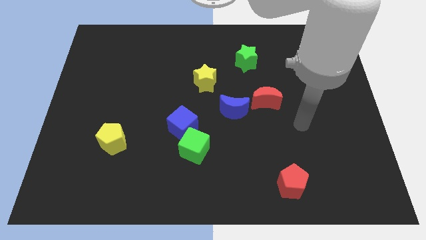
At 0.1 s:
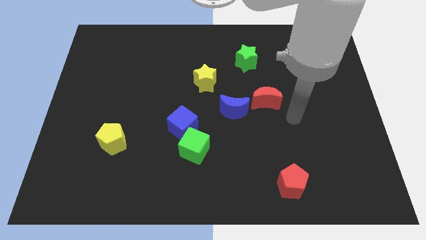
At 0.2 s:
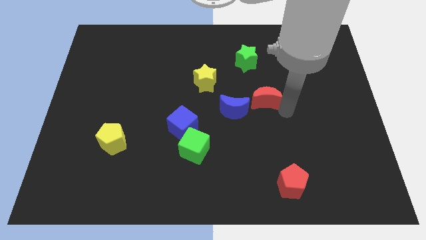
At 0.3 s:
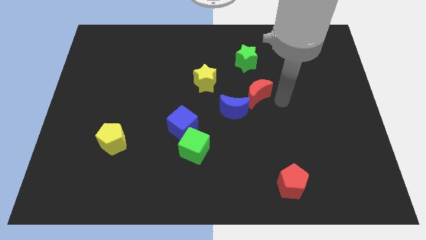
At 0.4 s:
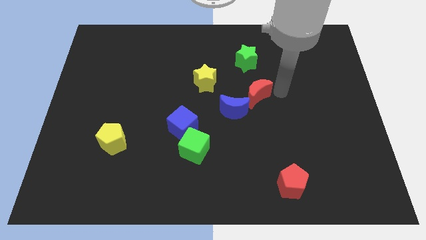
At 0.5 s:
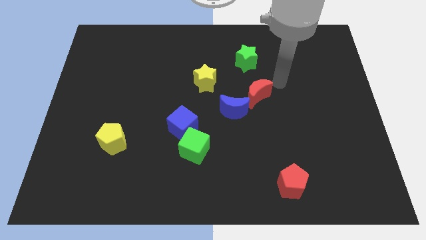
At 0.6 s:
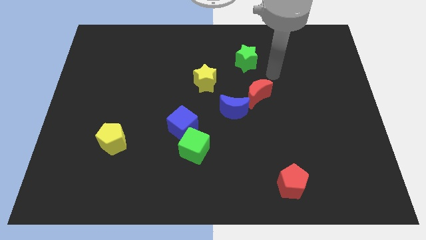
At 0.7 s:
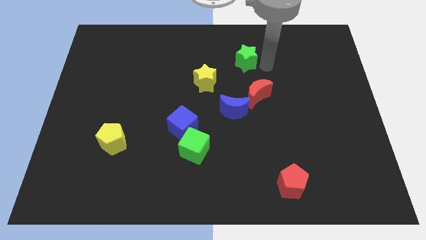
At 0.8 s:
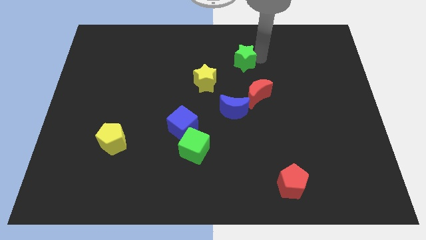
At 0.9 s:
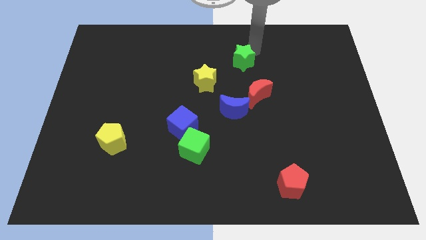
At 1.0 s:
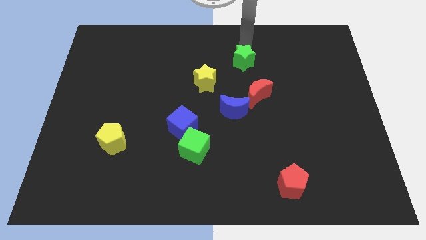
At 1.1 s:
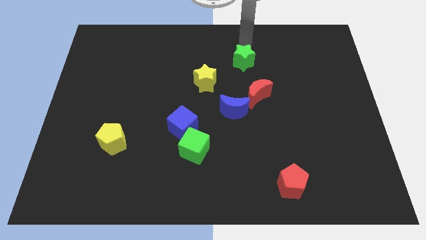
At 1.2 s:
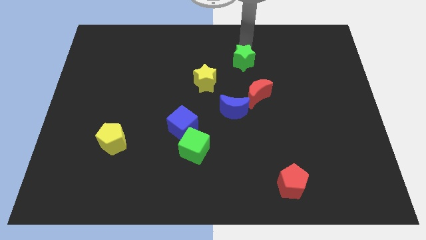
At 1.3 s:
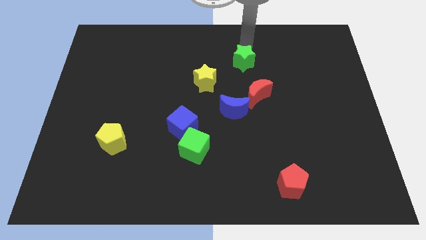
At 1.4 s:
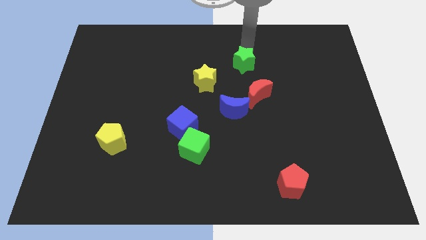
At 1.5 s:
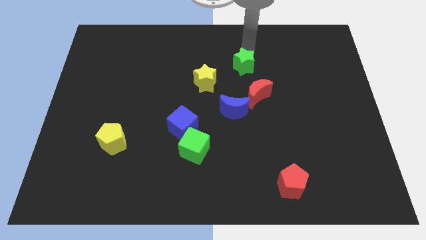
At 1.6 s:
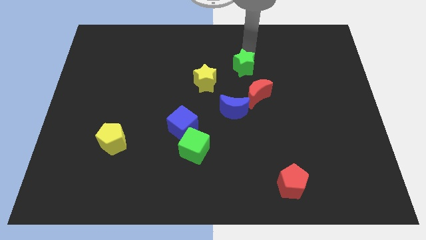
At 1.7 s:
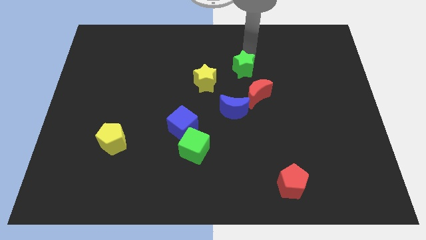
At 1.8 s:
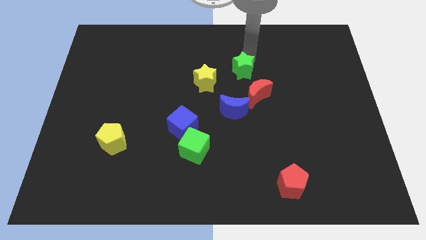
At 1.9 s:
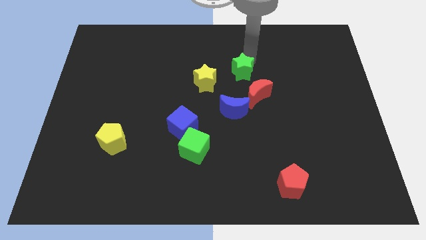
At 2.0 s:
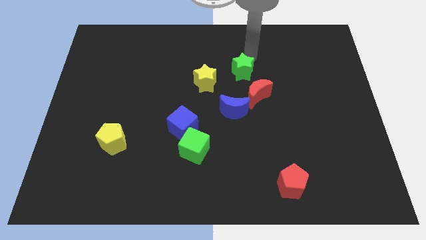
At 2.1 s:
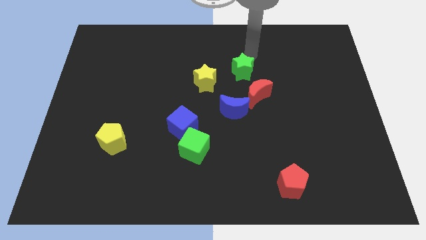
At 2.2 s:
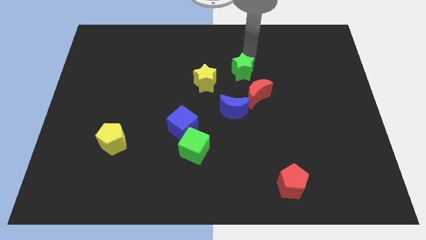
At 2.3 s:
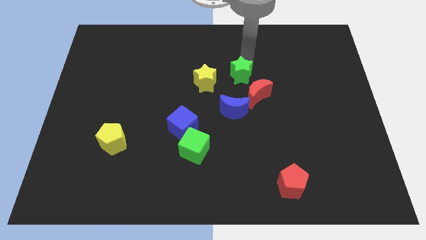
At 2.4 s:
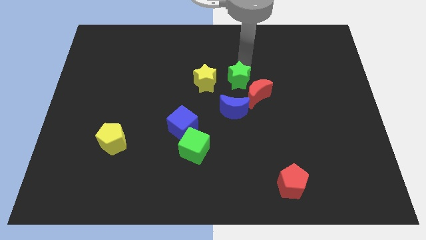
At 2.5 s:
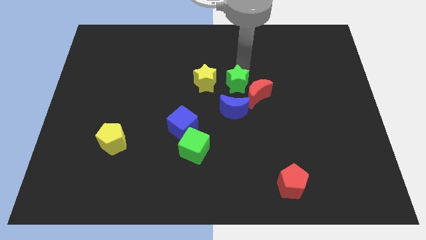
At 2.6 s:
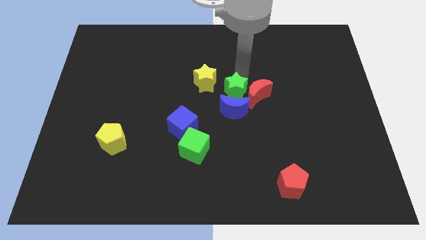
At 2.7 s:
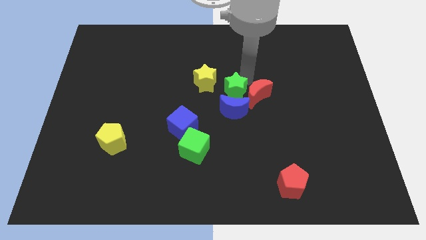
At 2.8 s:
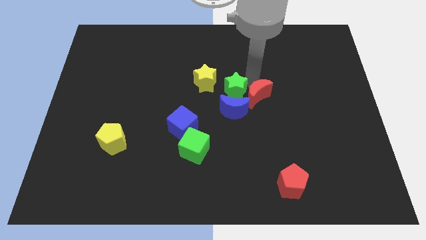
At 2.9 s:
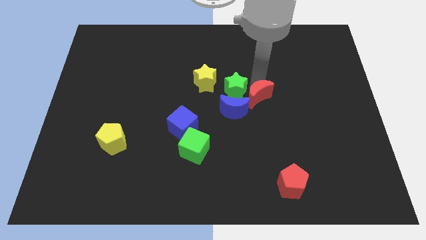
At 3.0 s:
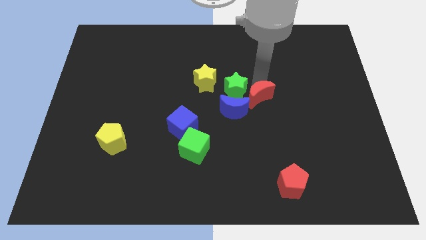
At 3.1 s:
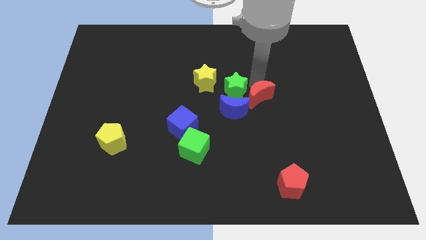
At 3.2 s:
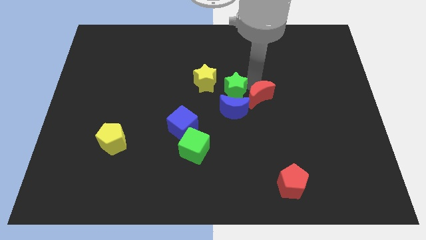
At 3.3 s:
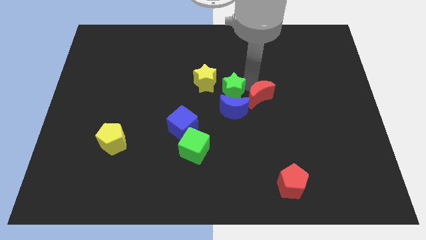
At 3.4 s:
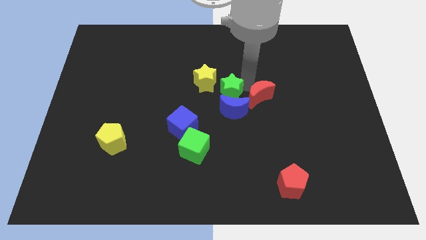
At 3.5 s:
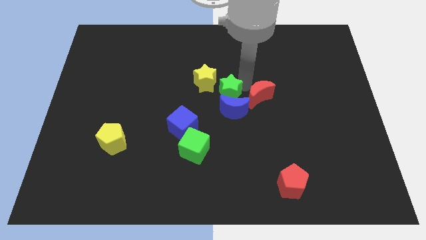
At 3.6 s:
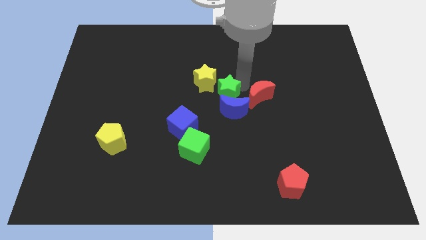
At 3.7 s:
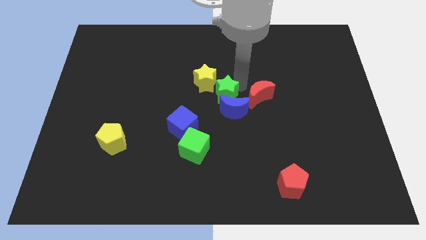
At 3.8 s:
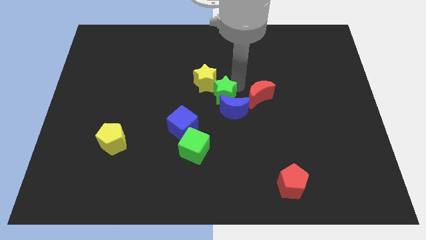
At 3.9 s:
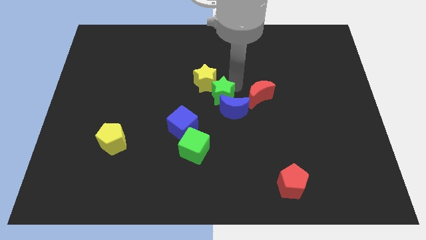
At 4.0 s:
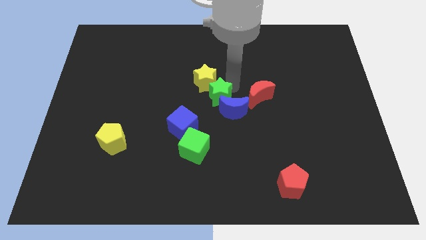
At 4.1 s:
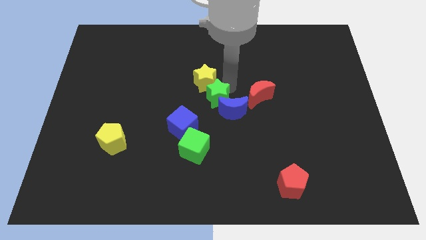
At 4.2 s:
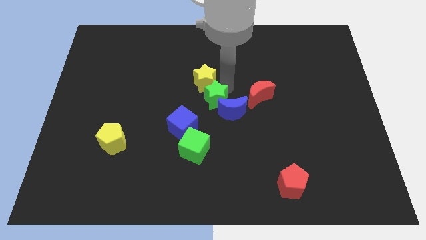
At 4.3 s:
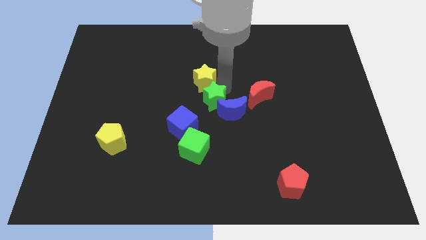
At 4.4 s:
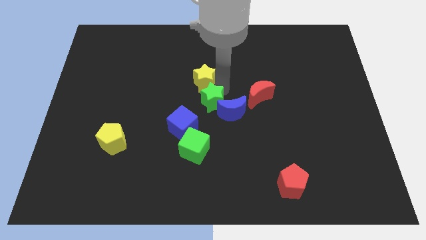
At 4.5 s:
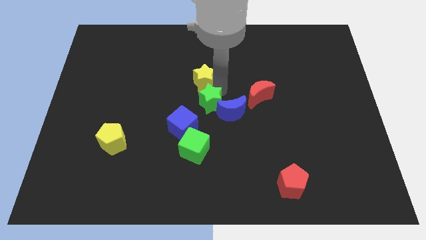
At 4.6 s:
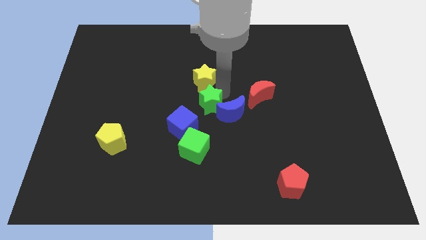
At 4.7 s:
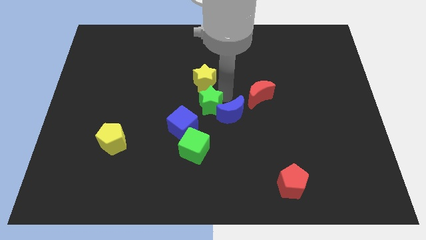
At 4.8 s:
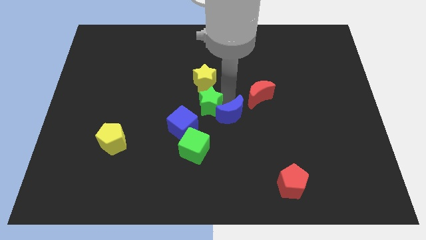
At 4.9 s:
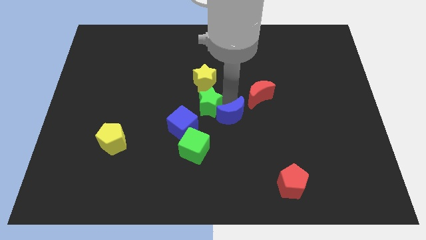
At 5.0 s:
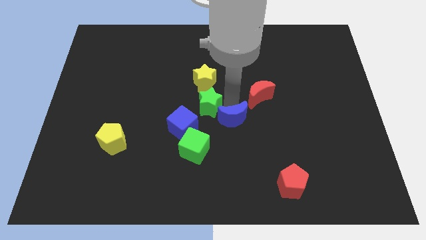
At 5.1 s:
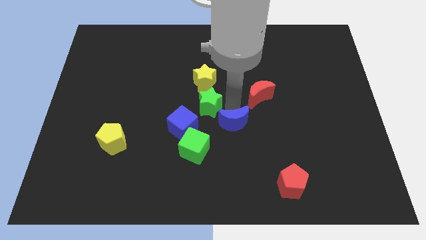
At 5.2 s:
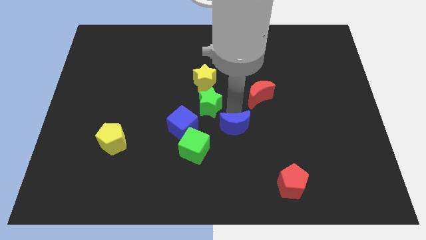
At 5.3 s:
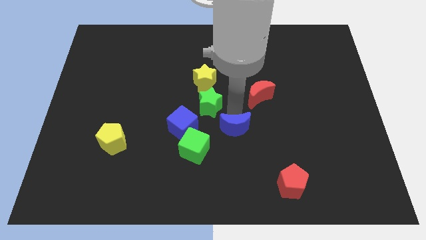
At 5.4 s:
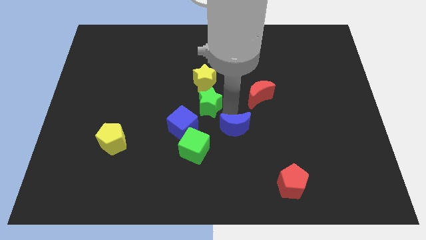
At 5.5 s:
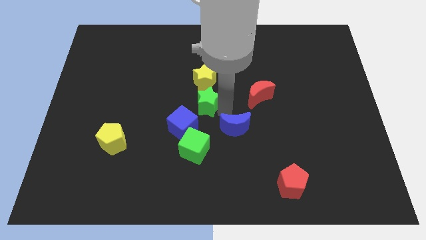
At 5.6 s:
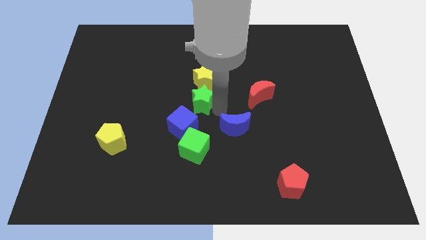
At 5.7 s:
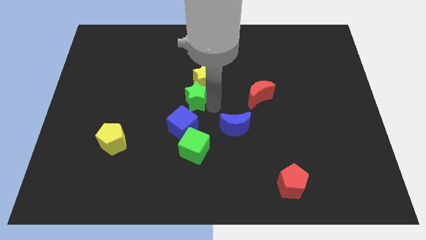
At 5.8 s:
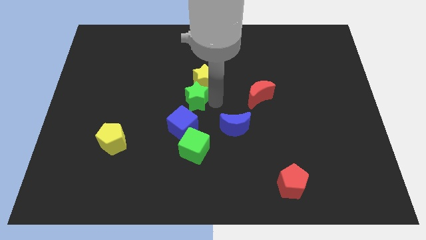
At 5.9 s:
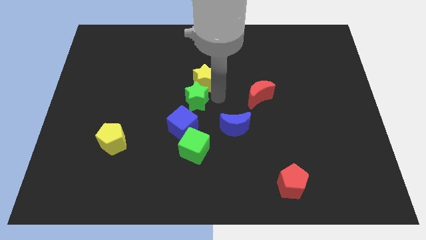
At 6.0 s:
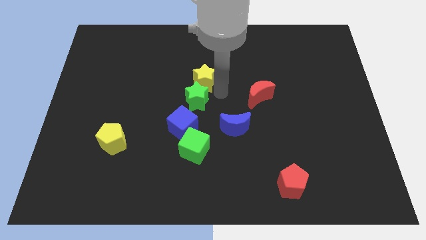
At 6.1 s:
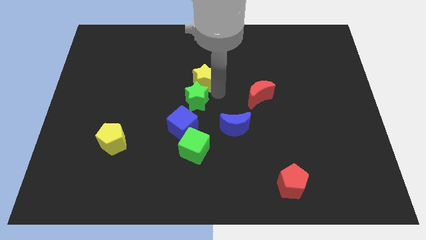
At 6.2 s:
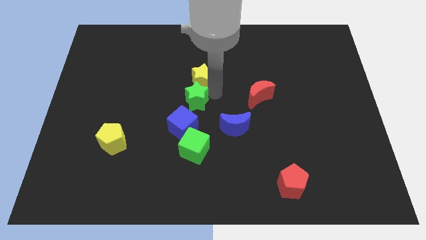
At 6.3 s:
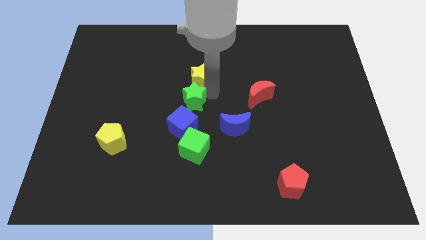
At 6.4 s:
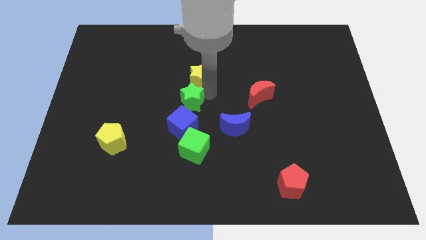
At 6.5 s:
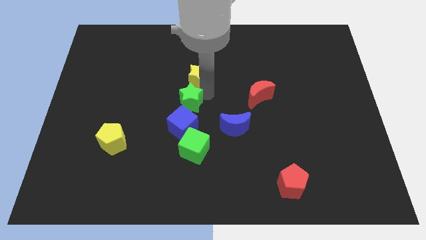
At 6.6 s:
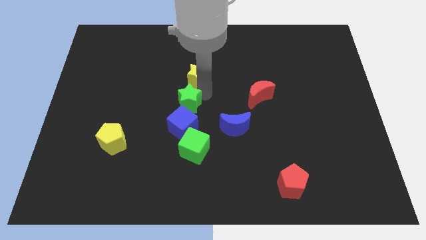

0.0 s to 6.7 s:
slide the green star downwards and then left

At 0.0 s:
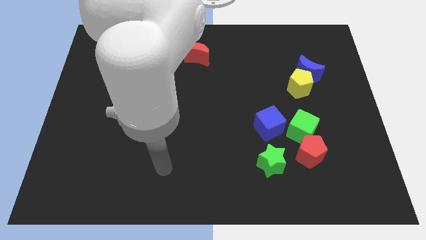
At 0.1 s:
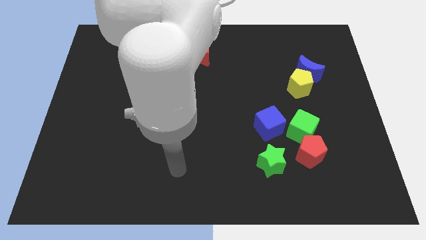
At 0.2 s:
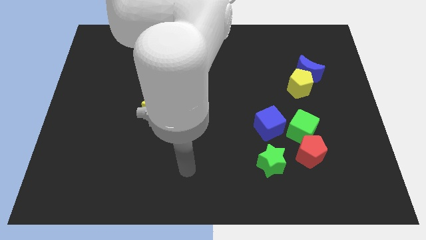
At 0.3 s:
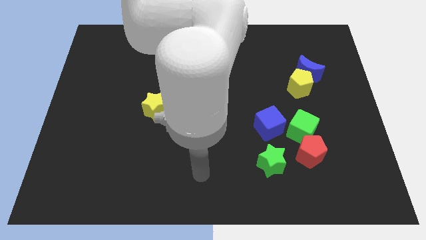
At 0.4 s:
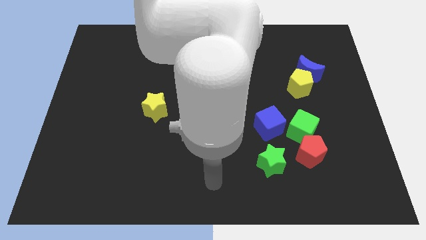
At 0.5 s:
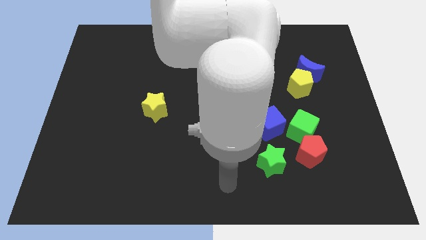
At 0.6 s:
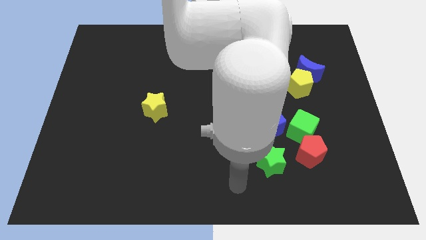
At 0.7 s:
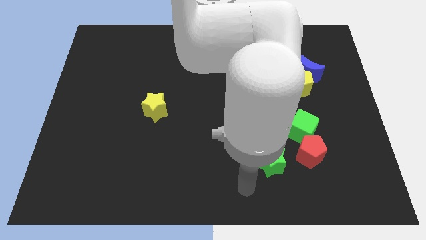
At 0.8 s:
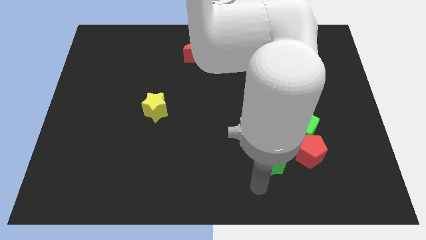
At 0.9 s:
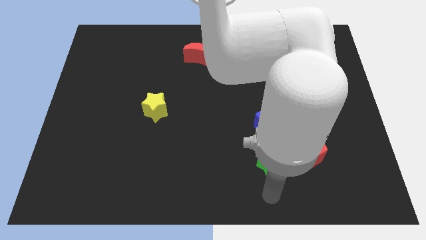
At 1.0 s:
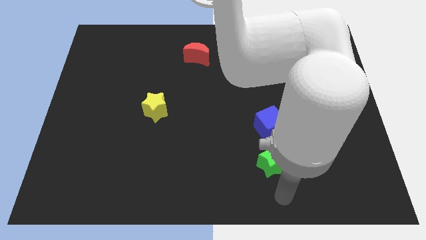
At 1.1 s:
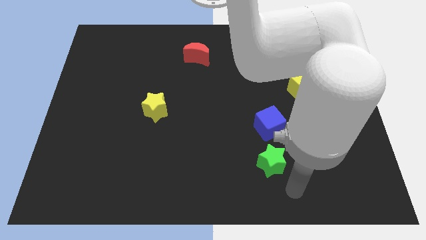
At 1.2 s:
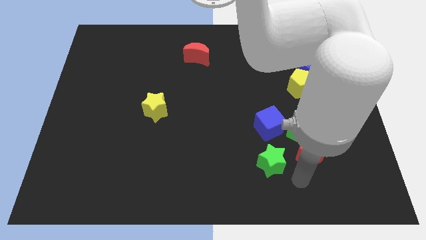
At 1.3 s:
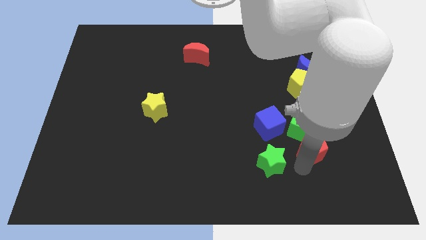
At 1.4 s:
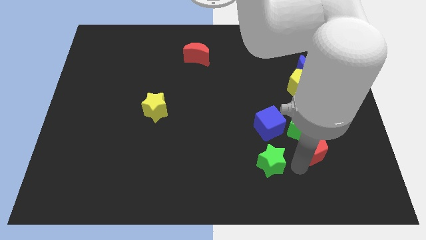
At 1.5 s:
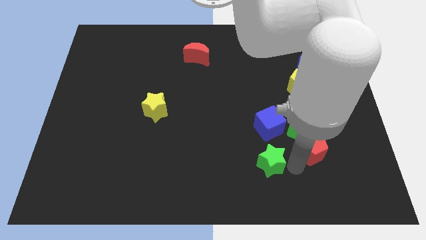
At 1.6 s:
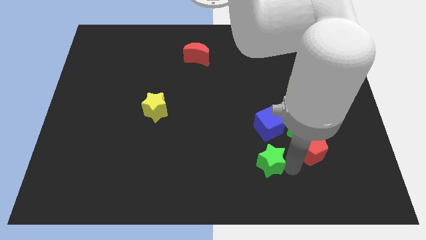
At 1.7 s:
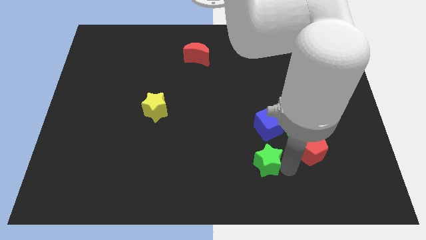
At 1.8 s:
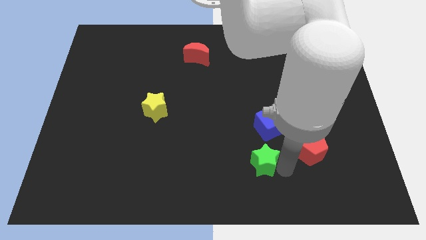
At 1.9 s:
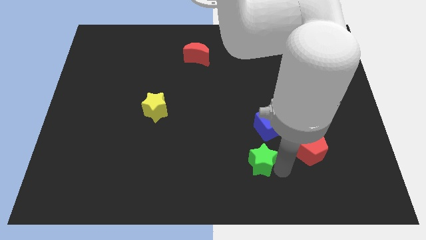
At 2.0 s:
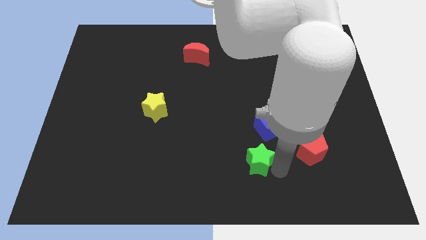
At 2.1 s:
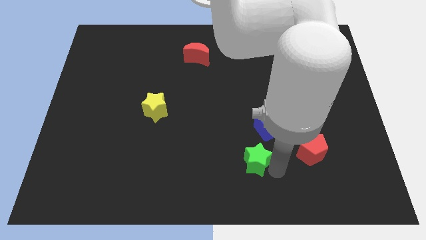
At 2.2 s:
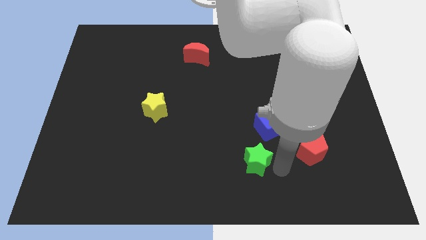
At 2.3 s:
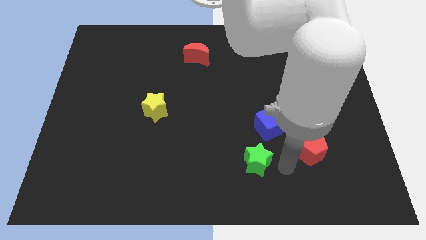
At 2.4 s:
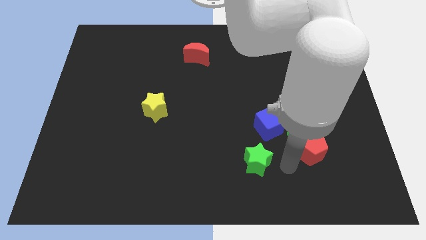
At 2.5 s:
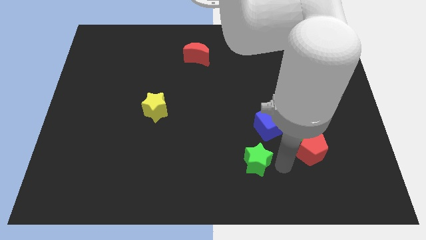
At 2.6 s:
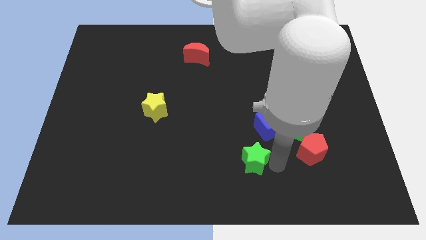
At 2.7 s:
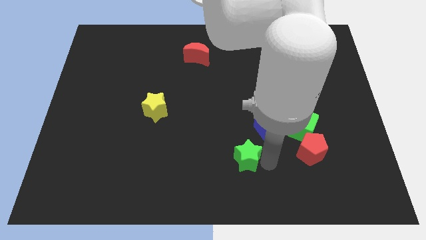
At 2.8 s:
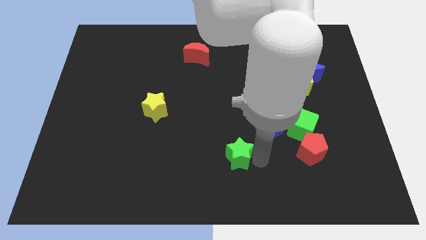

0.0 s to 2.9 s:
move the green star slightly to the left
